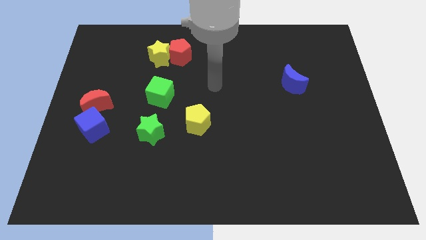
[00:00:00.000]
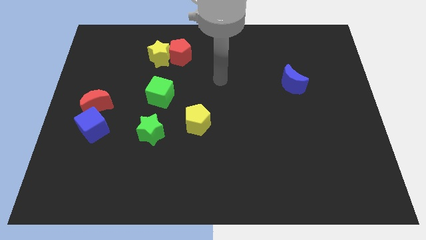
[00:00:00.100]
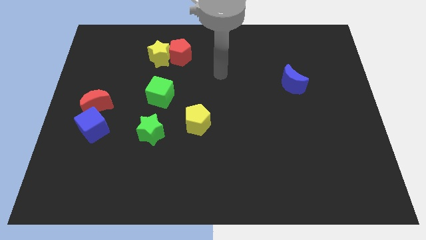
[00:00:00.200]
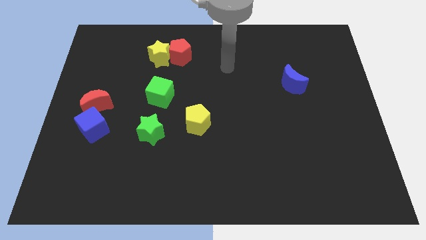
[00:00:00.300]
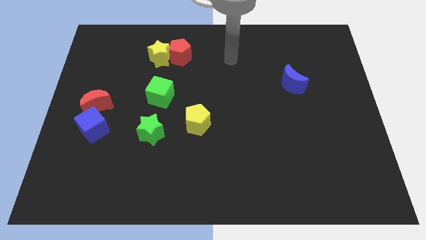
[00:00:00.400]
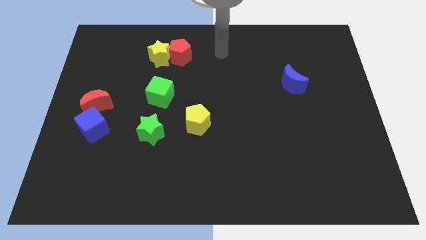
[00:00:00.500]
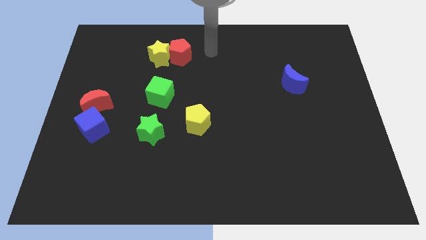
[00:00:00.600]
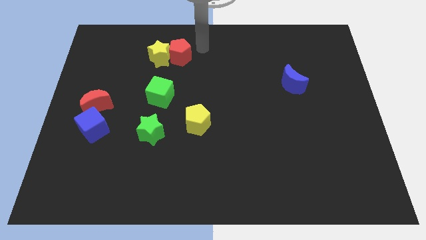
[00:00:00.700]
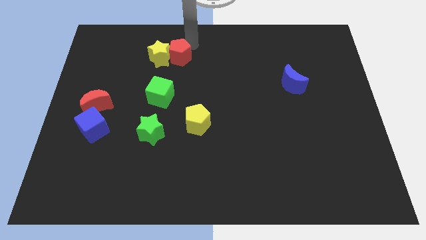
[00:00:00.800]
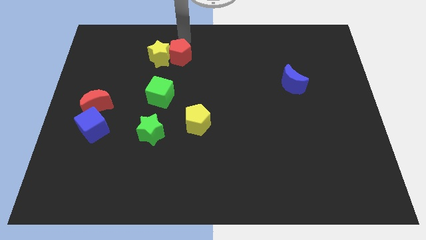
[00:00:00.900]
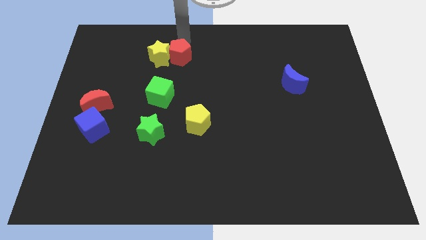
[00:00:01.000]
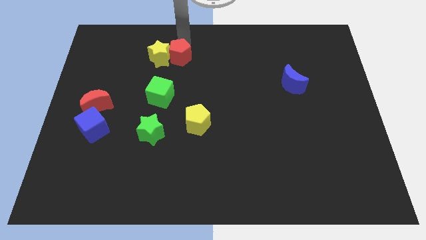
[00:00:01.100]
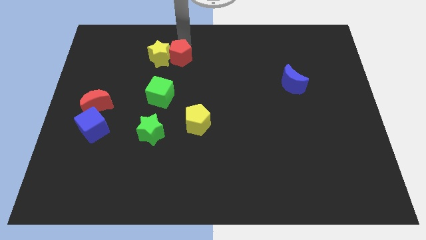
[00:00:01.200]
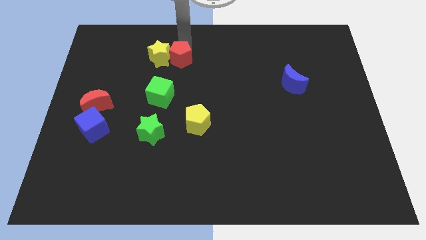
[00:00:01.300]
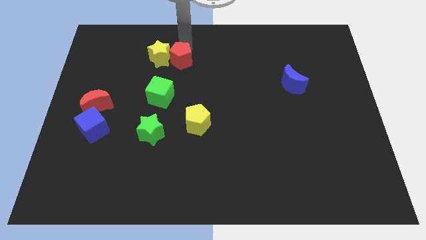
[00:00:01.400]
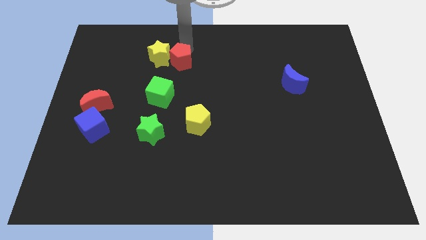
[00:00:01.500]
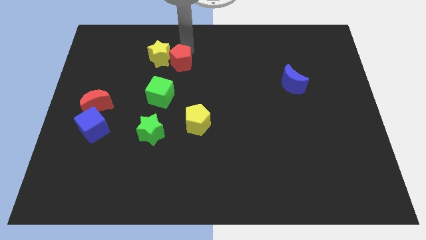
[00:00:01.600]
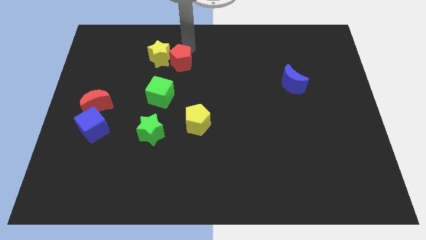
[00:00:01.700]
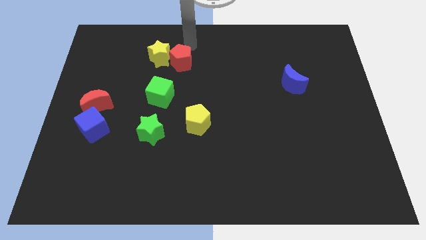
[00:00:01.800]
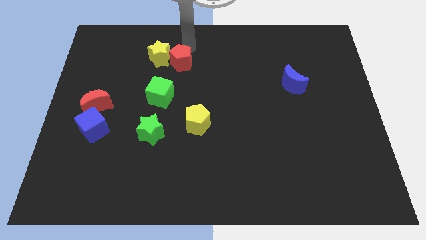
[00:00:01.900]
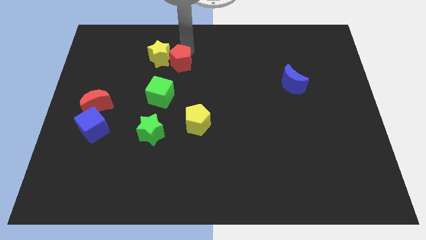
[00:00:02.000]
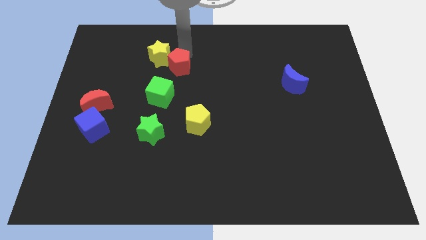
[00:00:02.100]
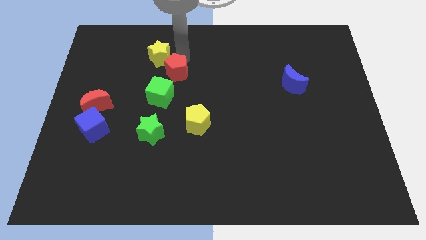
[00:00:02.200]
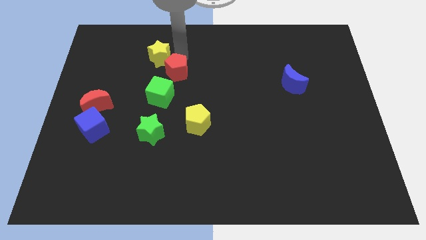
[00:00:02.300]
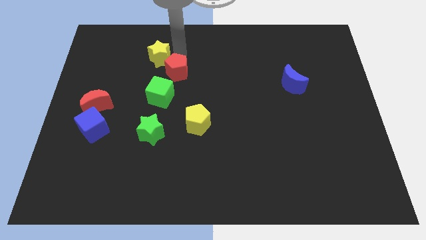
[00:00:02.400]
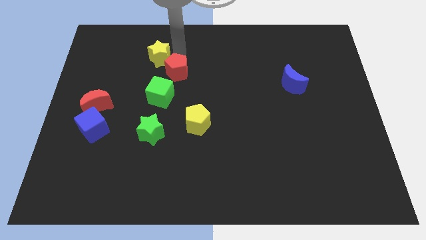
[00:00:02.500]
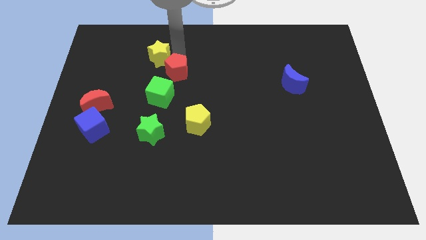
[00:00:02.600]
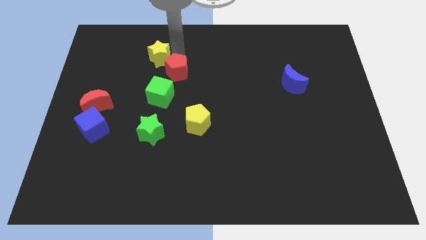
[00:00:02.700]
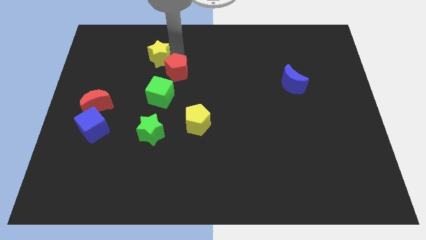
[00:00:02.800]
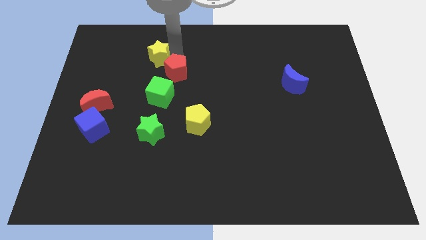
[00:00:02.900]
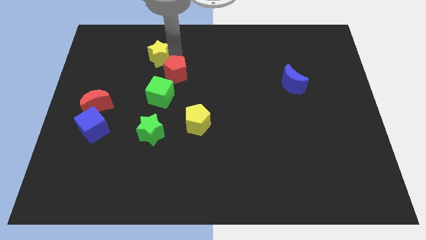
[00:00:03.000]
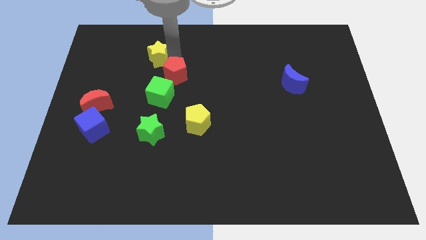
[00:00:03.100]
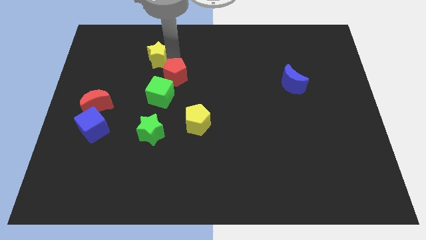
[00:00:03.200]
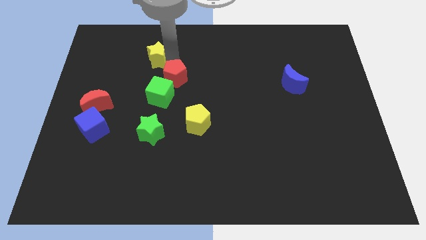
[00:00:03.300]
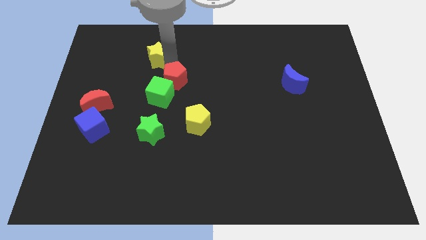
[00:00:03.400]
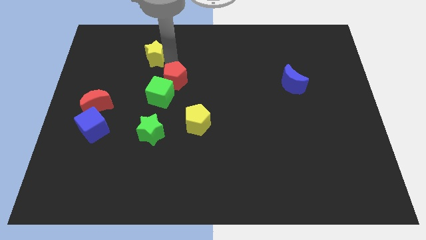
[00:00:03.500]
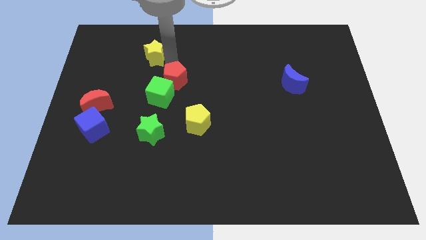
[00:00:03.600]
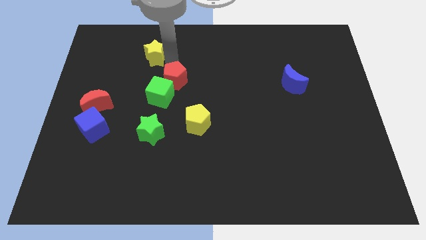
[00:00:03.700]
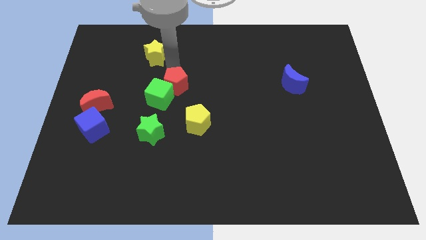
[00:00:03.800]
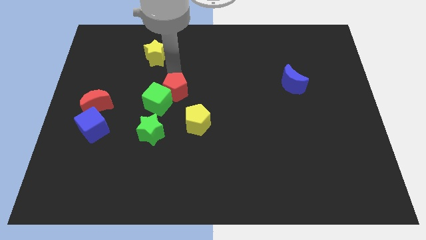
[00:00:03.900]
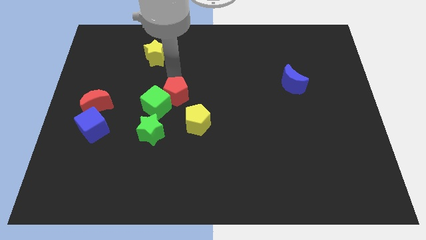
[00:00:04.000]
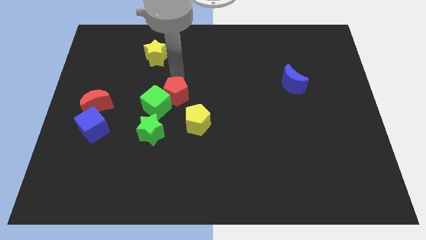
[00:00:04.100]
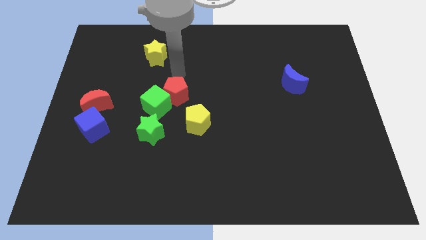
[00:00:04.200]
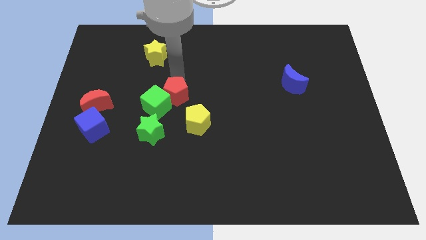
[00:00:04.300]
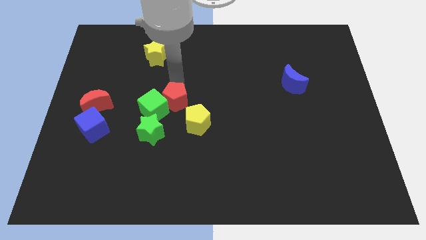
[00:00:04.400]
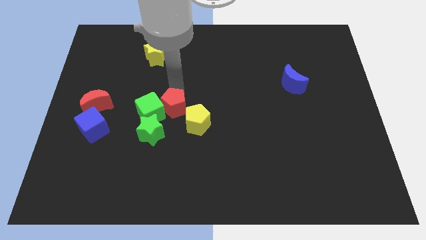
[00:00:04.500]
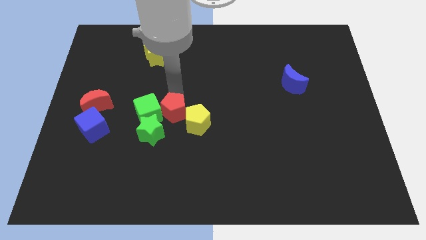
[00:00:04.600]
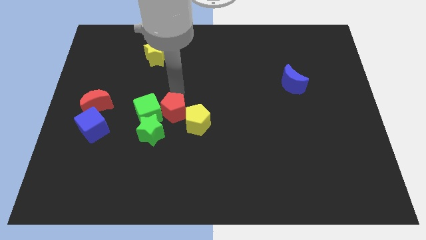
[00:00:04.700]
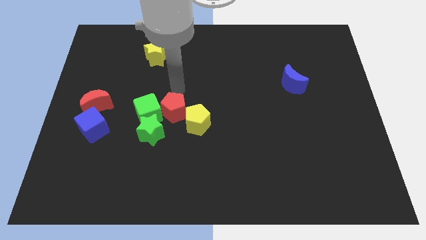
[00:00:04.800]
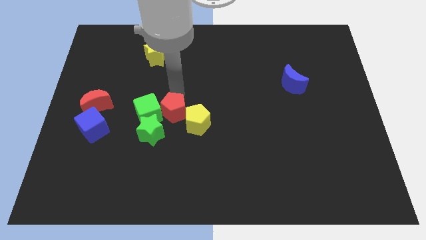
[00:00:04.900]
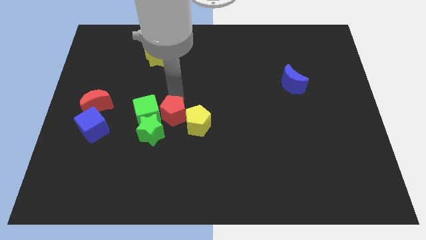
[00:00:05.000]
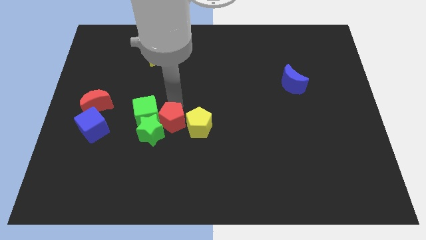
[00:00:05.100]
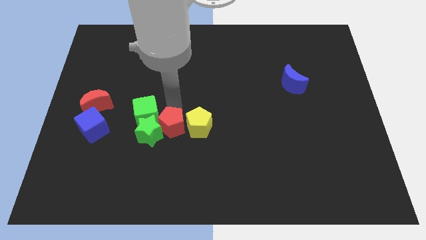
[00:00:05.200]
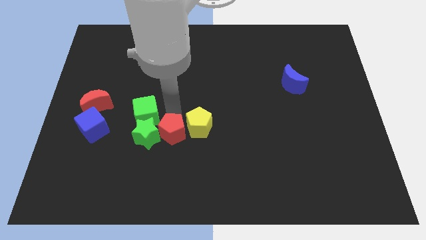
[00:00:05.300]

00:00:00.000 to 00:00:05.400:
move the red pentagon diagonally down and to the right of the green star

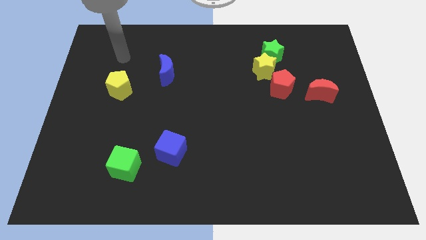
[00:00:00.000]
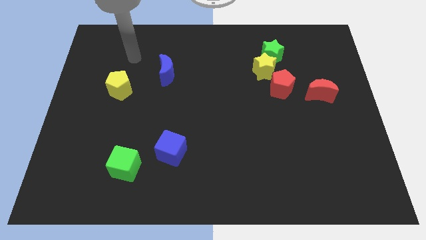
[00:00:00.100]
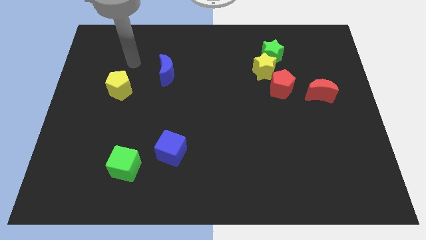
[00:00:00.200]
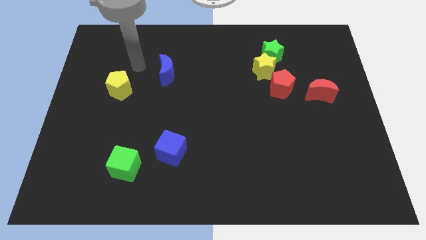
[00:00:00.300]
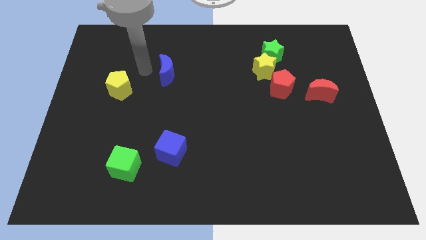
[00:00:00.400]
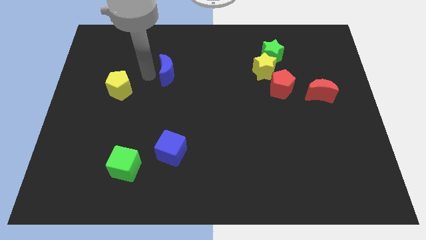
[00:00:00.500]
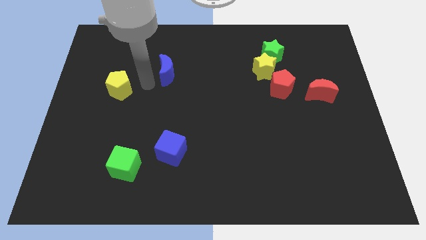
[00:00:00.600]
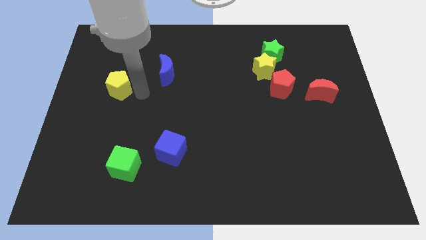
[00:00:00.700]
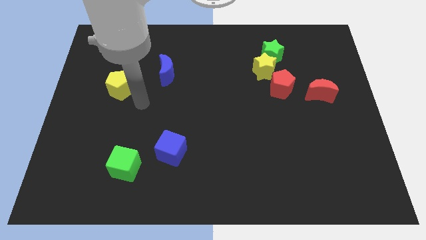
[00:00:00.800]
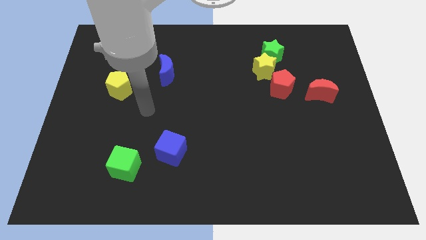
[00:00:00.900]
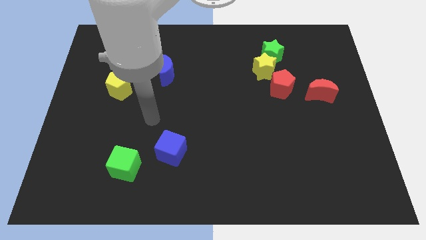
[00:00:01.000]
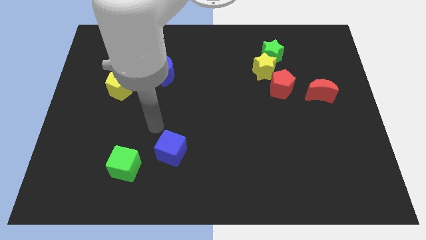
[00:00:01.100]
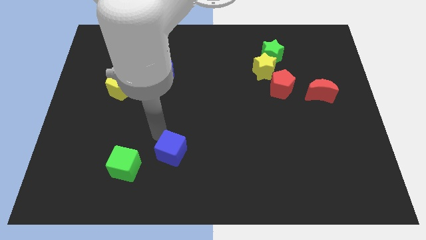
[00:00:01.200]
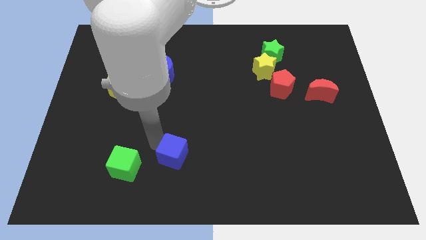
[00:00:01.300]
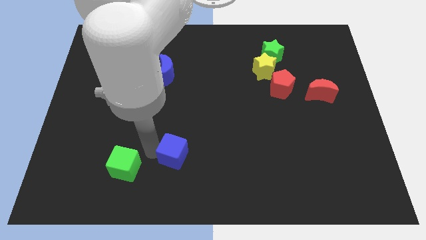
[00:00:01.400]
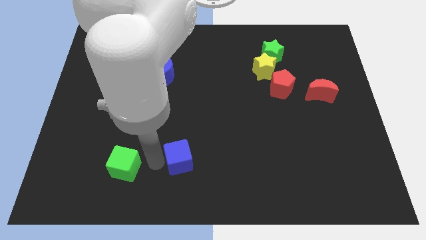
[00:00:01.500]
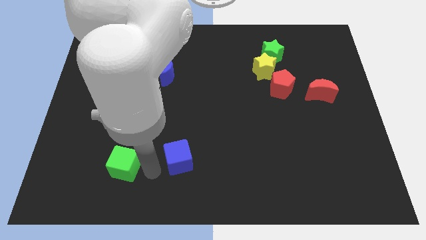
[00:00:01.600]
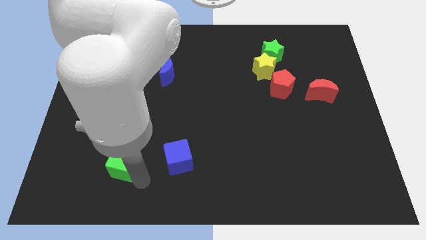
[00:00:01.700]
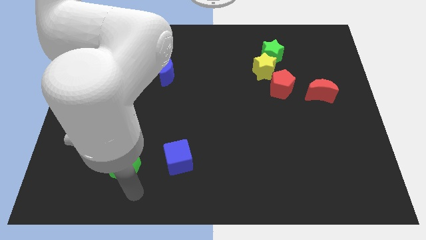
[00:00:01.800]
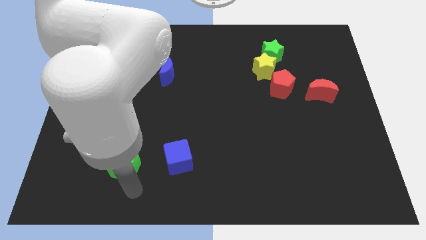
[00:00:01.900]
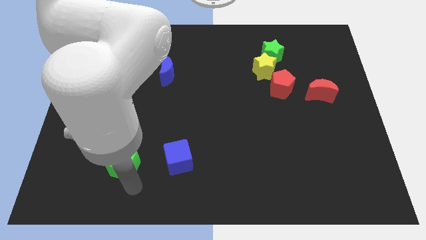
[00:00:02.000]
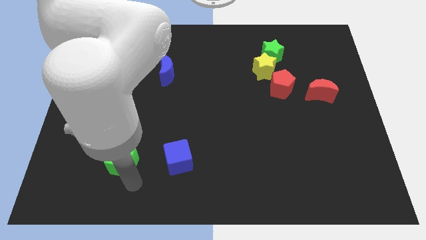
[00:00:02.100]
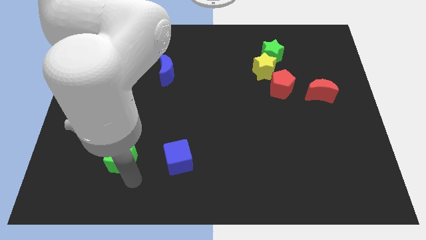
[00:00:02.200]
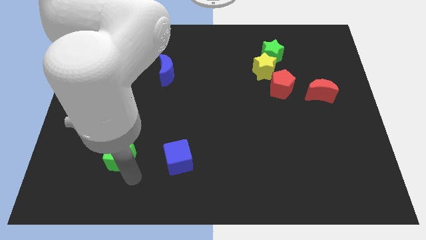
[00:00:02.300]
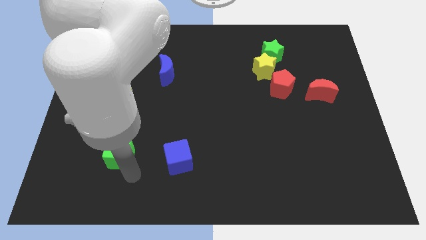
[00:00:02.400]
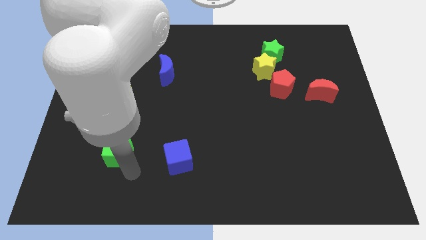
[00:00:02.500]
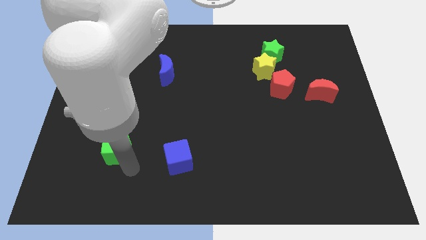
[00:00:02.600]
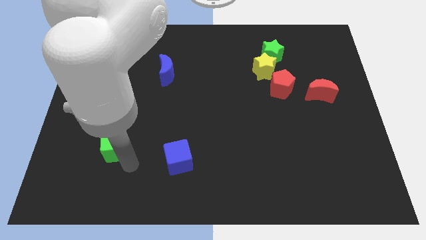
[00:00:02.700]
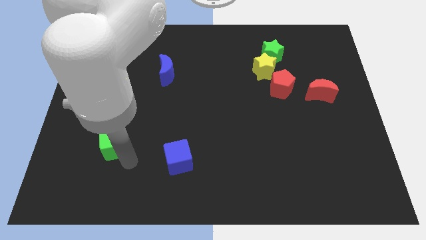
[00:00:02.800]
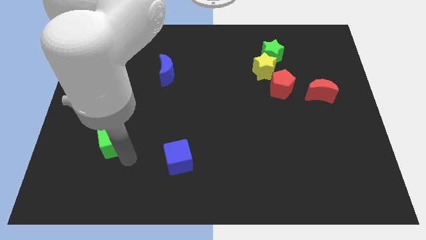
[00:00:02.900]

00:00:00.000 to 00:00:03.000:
put the green cube below the yellow pentagon
